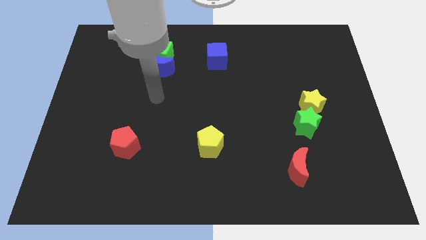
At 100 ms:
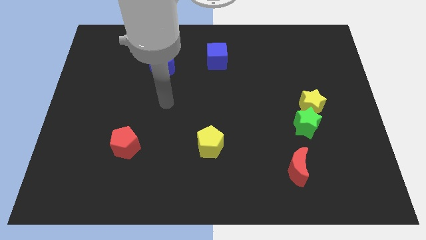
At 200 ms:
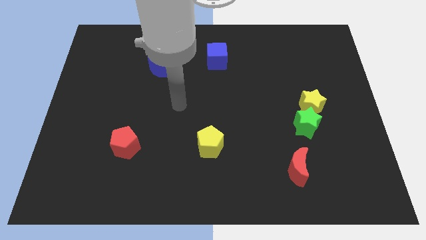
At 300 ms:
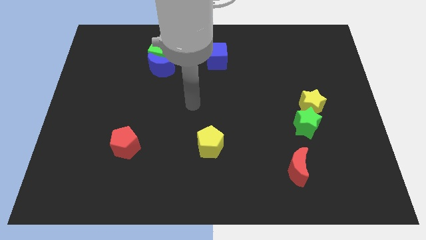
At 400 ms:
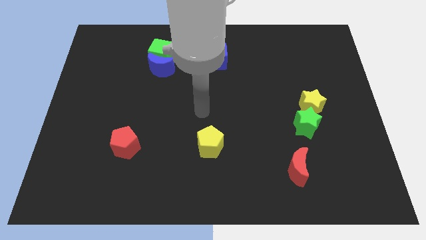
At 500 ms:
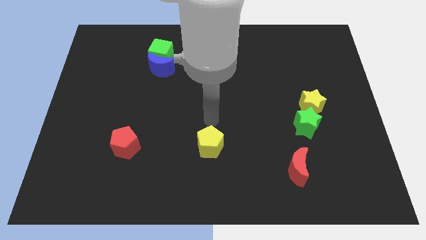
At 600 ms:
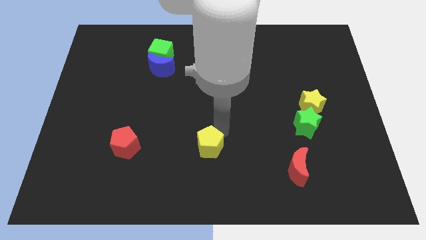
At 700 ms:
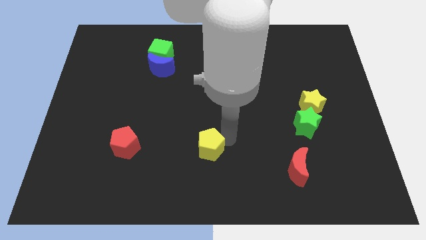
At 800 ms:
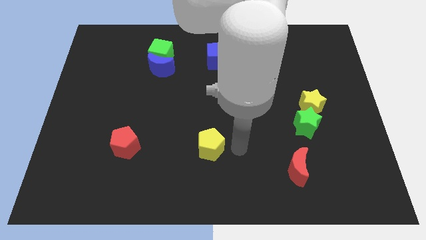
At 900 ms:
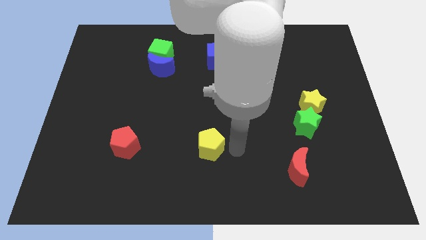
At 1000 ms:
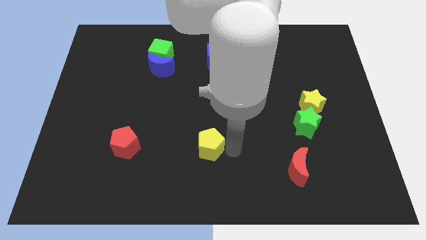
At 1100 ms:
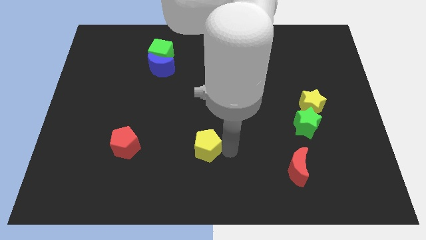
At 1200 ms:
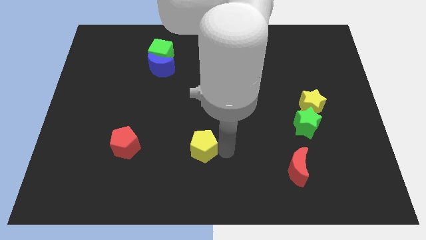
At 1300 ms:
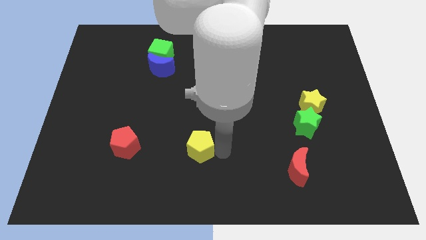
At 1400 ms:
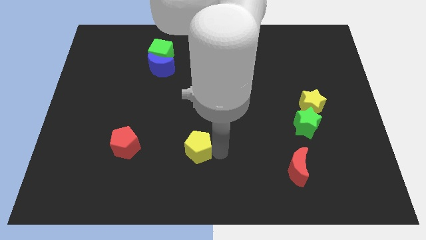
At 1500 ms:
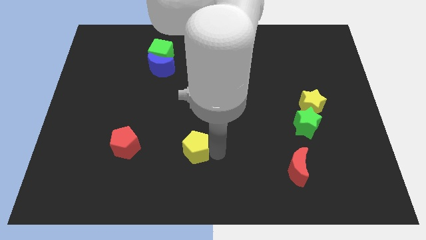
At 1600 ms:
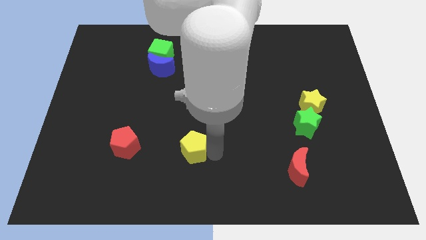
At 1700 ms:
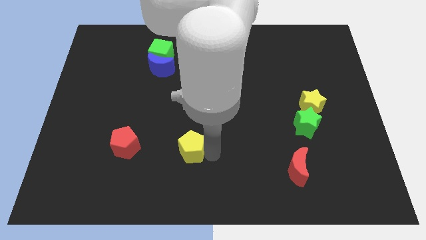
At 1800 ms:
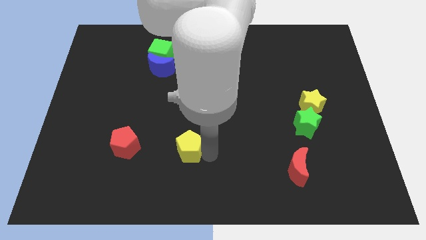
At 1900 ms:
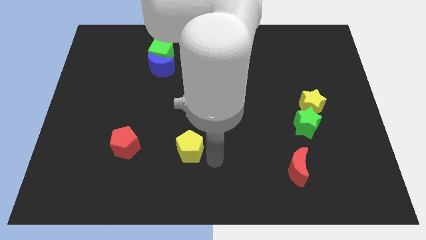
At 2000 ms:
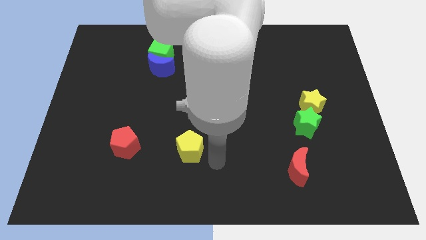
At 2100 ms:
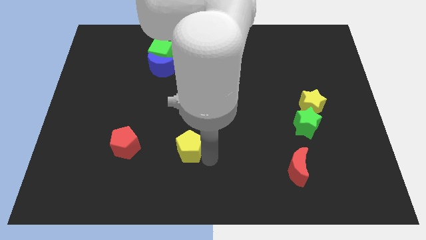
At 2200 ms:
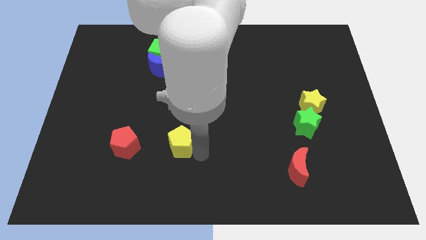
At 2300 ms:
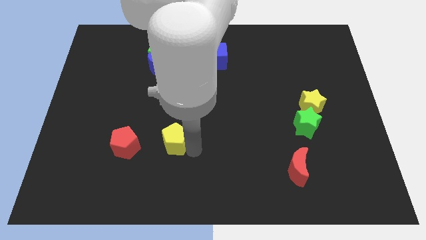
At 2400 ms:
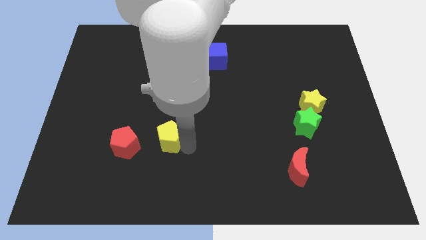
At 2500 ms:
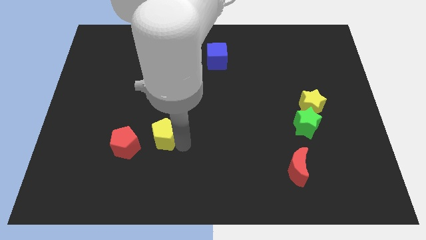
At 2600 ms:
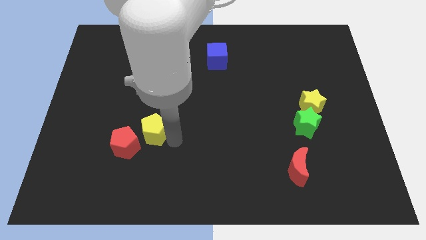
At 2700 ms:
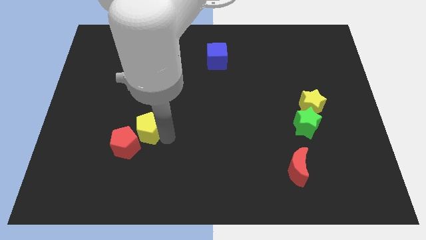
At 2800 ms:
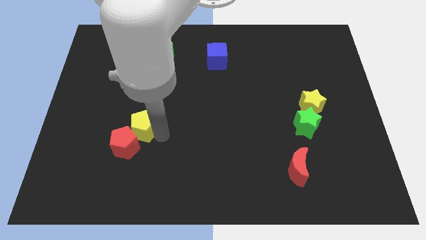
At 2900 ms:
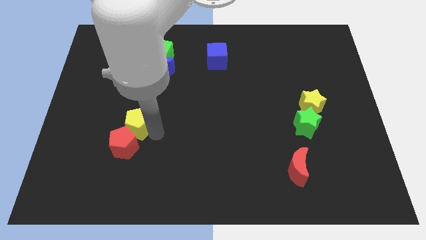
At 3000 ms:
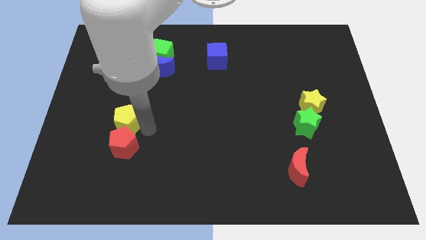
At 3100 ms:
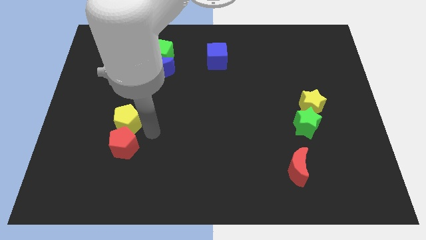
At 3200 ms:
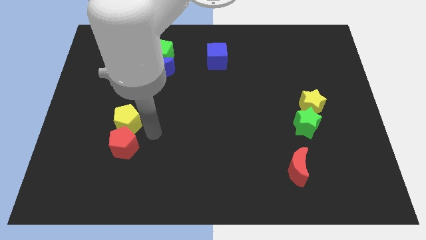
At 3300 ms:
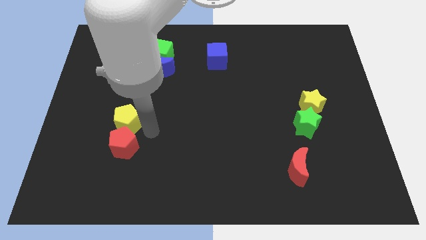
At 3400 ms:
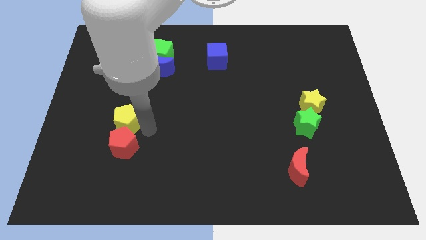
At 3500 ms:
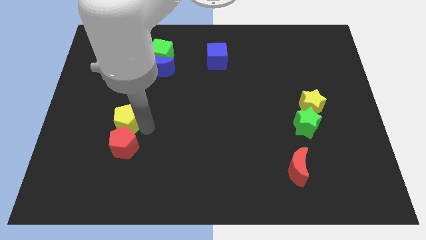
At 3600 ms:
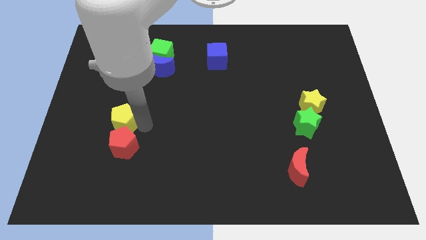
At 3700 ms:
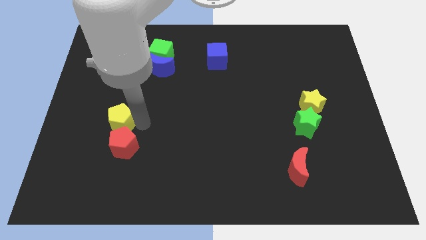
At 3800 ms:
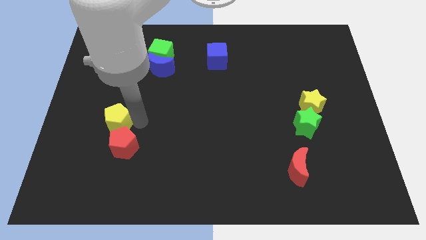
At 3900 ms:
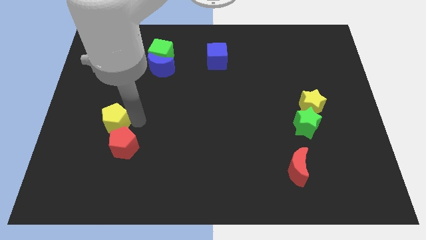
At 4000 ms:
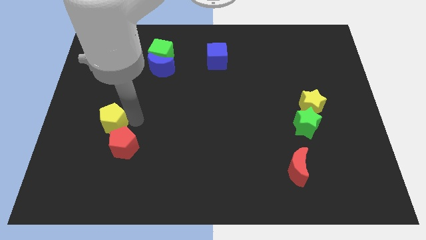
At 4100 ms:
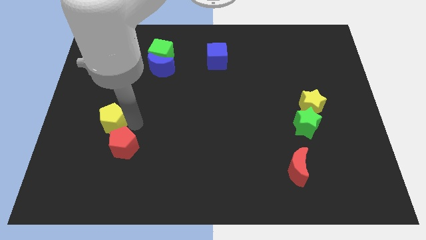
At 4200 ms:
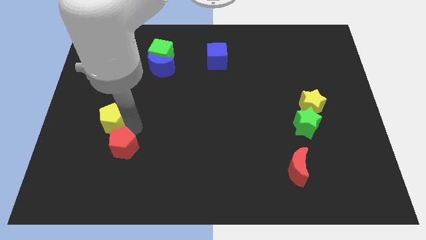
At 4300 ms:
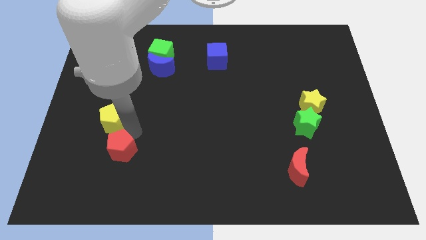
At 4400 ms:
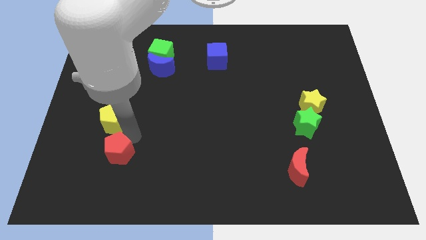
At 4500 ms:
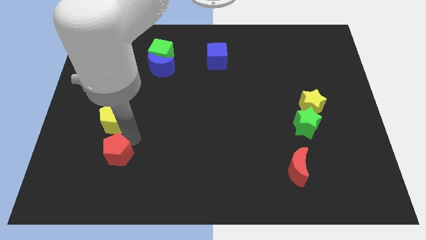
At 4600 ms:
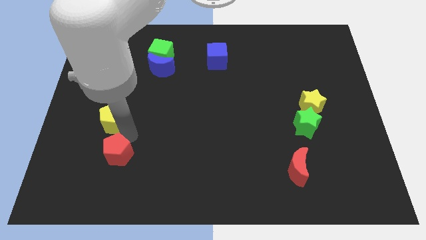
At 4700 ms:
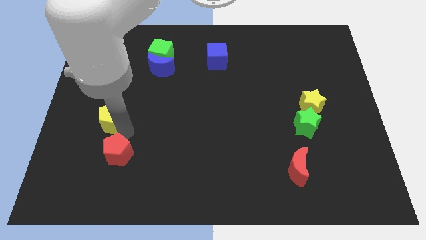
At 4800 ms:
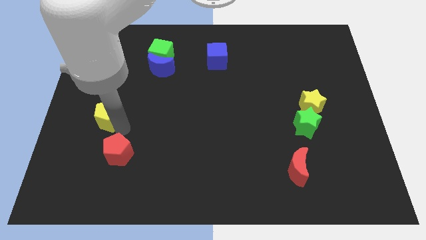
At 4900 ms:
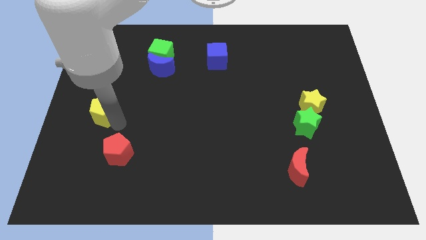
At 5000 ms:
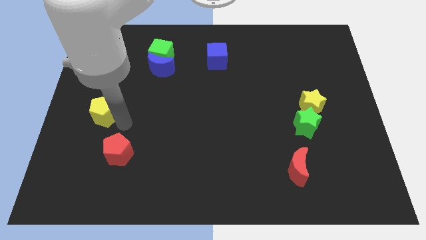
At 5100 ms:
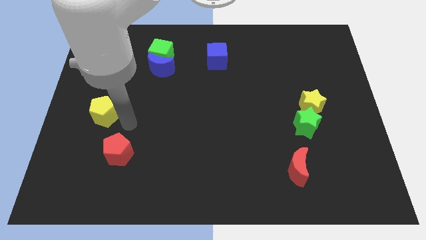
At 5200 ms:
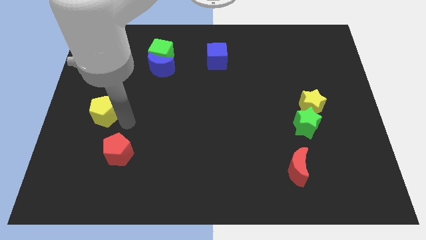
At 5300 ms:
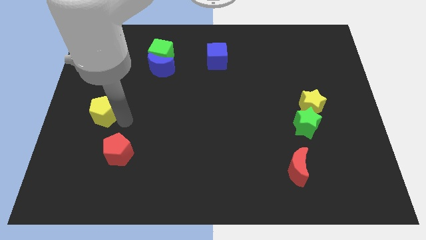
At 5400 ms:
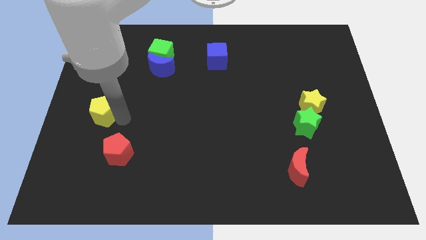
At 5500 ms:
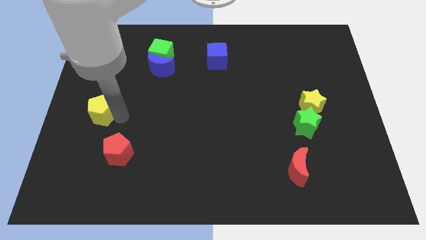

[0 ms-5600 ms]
put the yellow pentagon to the left side
